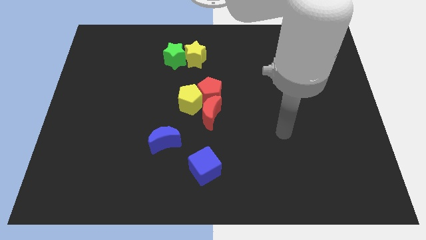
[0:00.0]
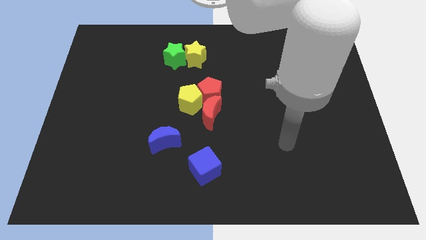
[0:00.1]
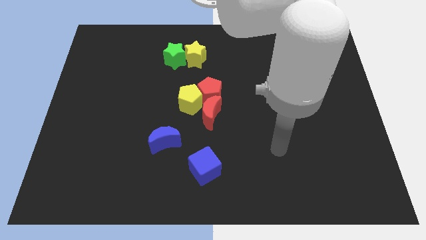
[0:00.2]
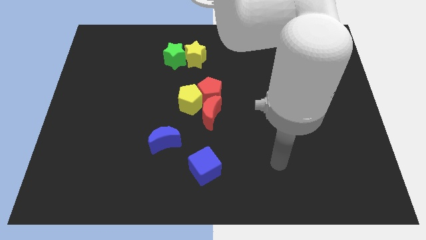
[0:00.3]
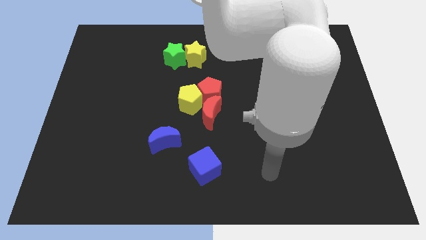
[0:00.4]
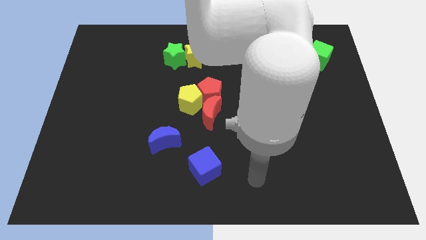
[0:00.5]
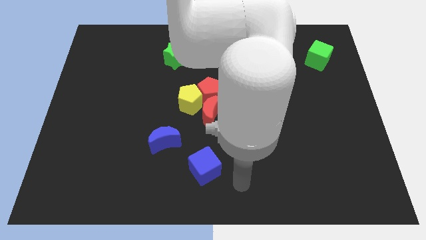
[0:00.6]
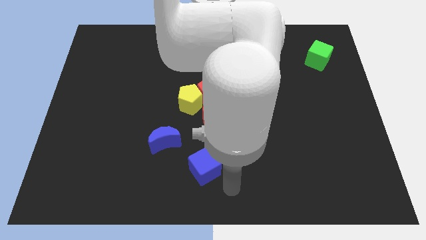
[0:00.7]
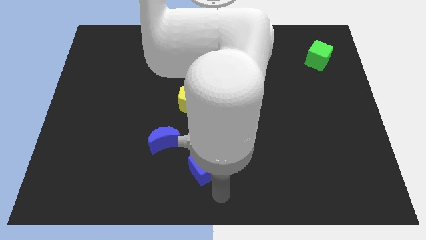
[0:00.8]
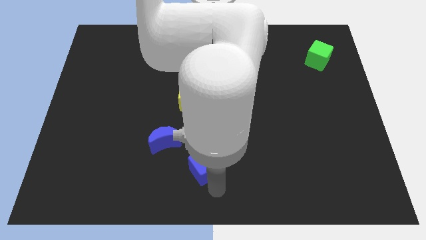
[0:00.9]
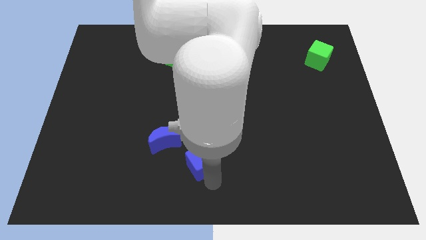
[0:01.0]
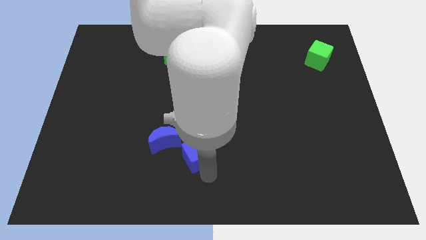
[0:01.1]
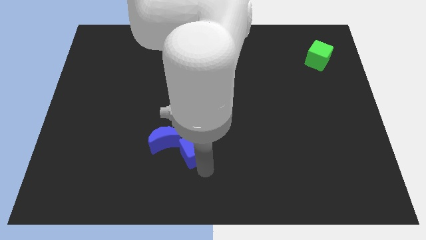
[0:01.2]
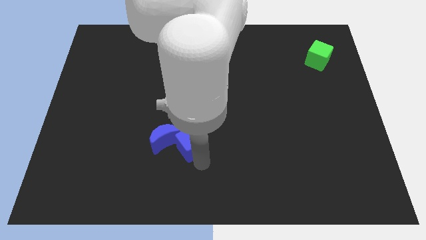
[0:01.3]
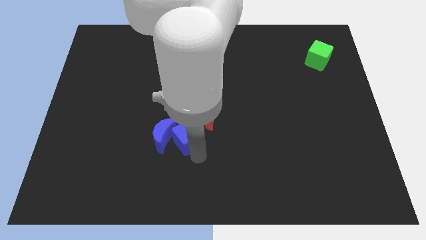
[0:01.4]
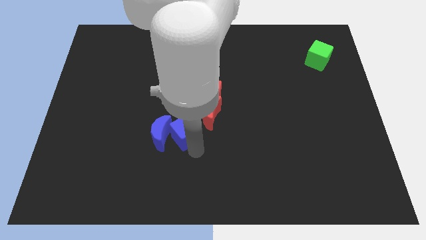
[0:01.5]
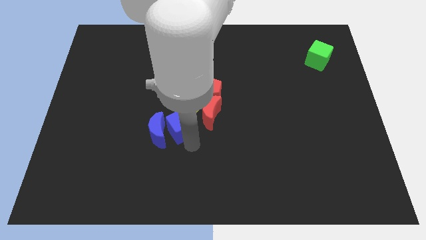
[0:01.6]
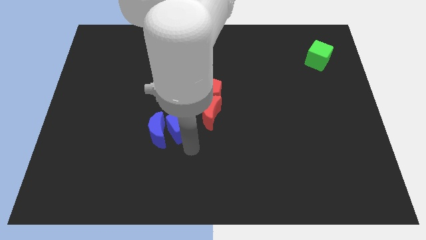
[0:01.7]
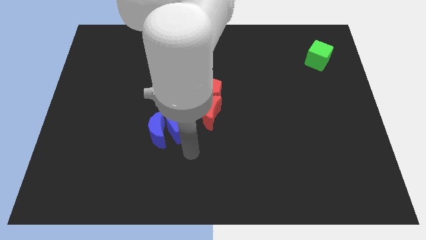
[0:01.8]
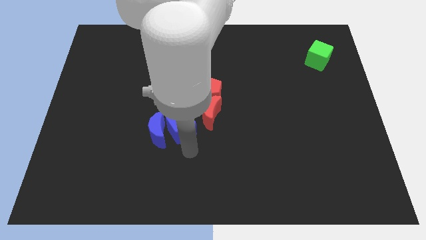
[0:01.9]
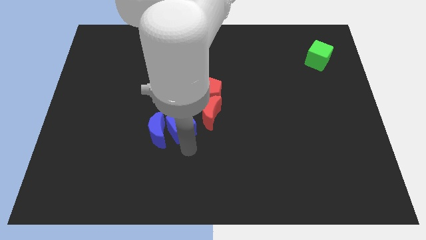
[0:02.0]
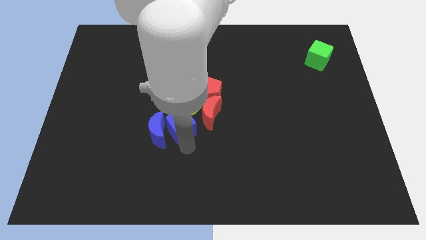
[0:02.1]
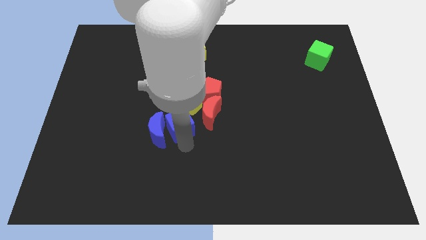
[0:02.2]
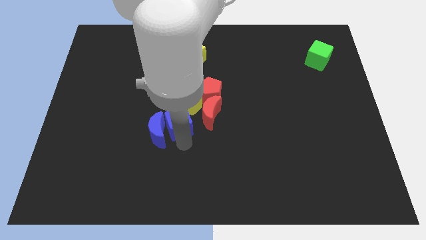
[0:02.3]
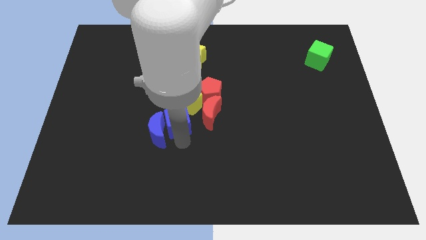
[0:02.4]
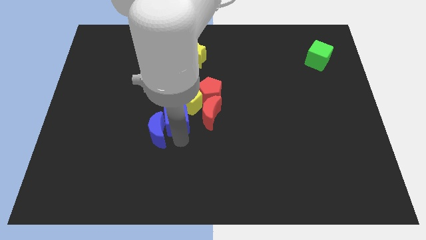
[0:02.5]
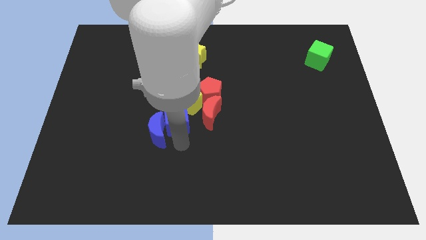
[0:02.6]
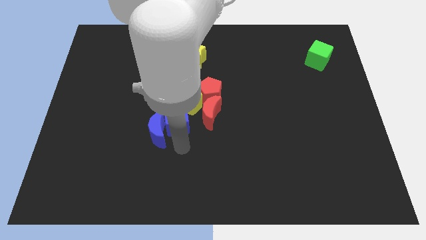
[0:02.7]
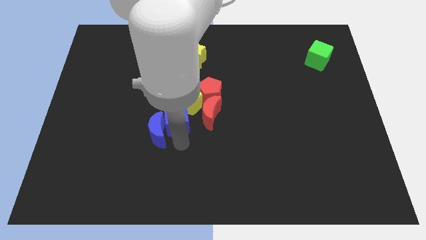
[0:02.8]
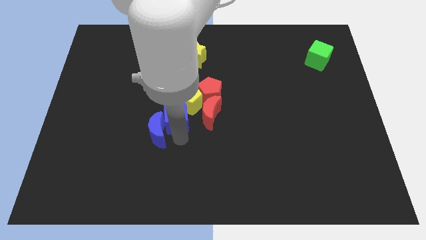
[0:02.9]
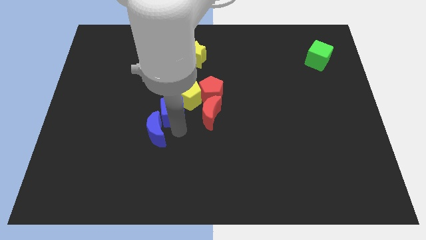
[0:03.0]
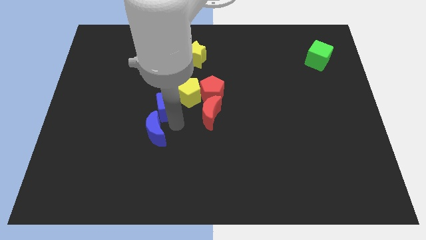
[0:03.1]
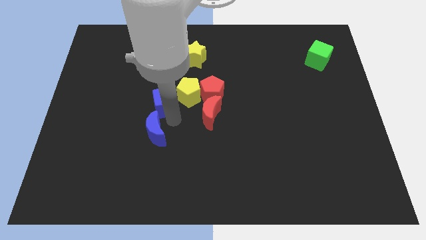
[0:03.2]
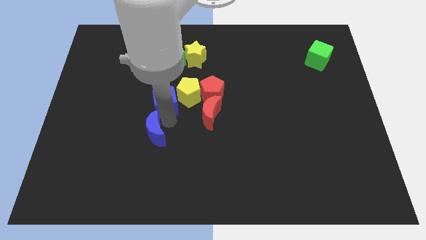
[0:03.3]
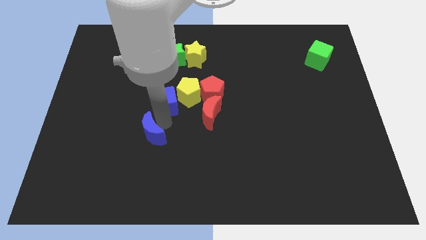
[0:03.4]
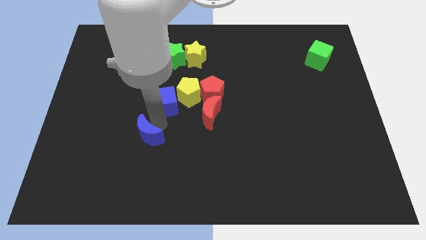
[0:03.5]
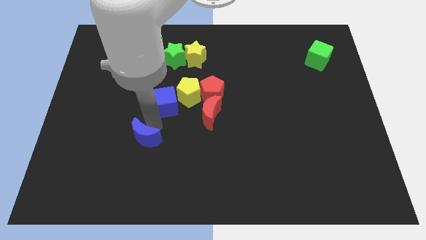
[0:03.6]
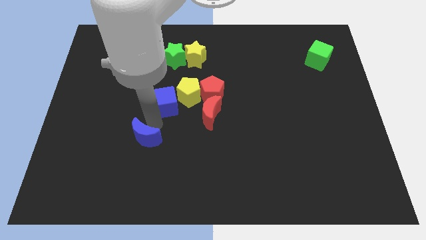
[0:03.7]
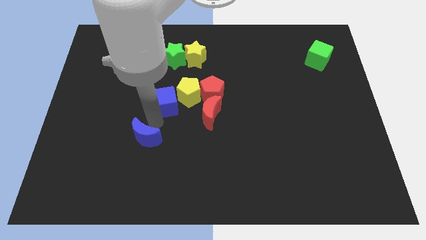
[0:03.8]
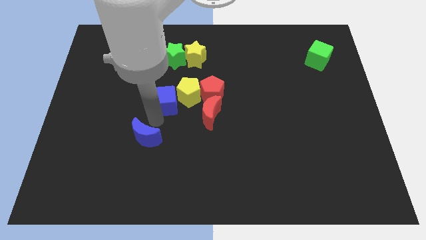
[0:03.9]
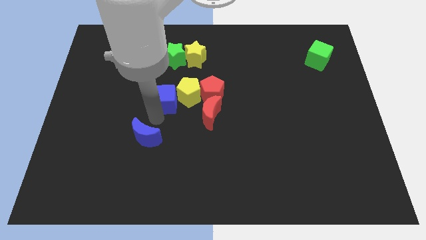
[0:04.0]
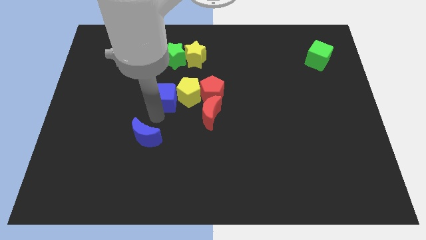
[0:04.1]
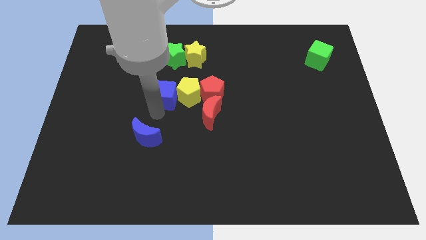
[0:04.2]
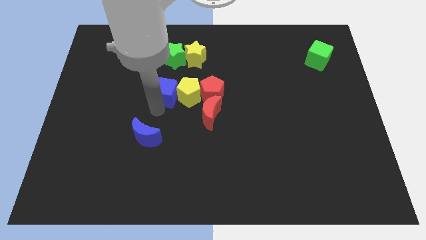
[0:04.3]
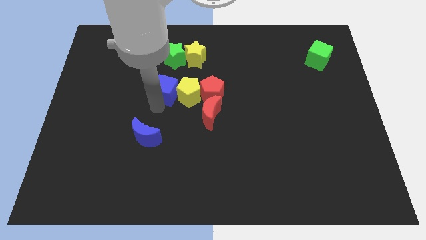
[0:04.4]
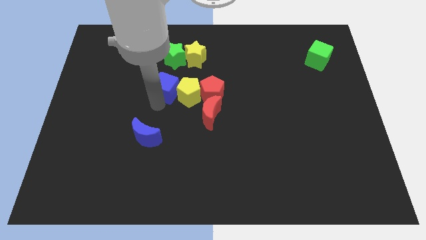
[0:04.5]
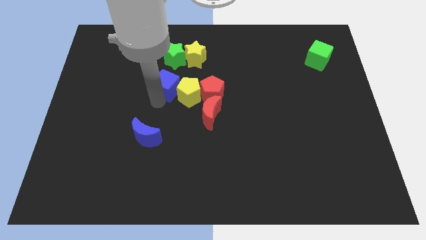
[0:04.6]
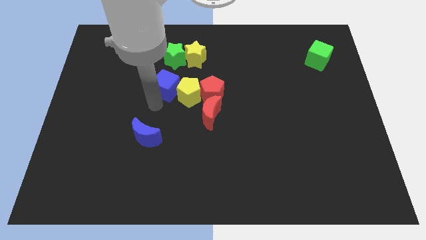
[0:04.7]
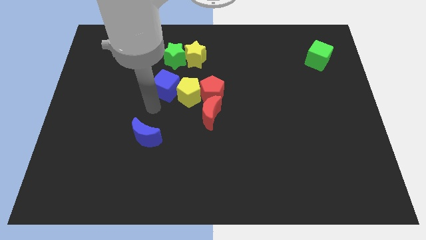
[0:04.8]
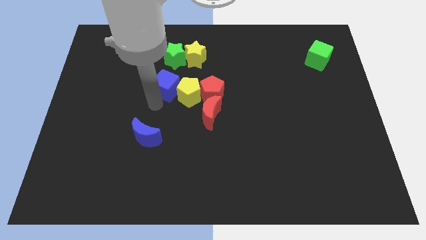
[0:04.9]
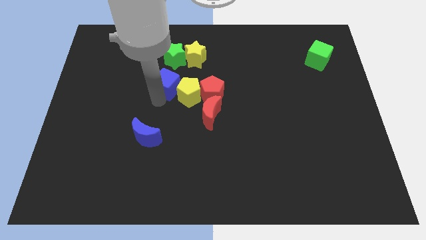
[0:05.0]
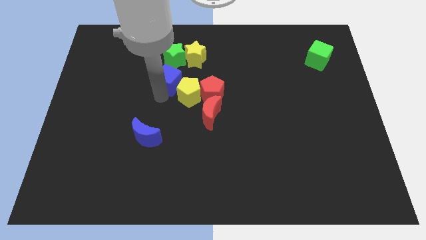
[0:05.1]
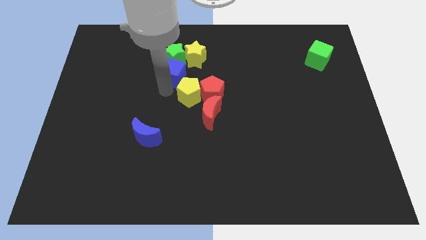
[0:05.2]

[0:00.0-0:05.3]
push the blue cube towards the green star

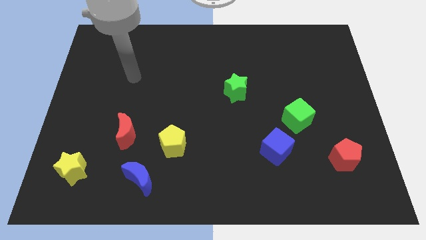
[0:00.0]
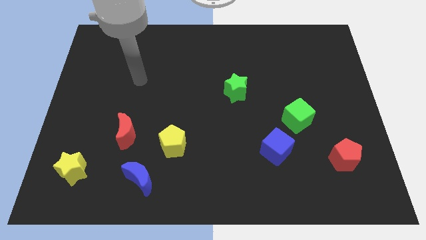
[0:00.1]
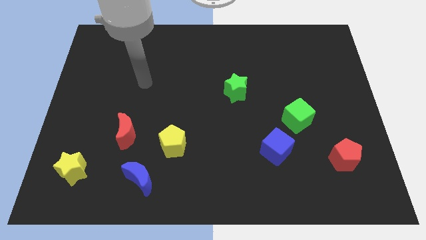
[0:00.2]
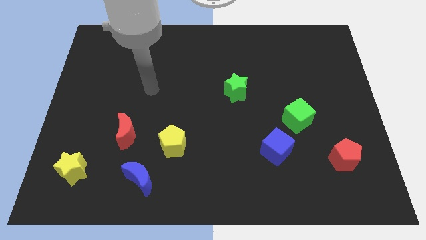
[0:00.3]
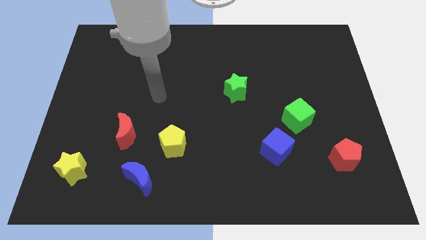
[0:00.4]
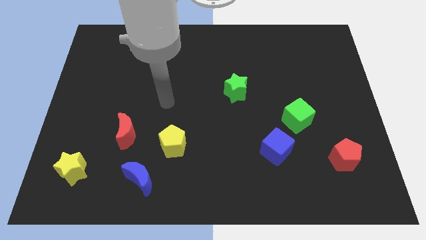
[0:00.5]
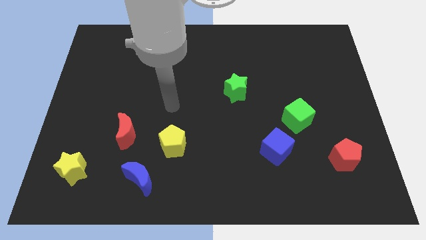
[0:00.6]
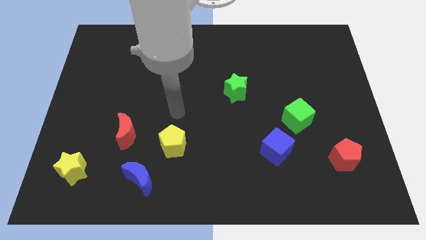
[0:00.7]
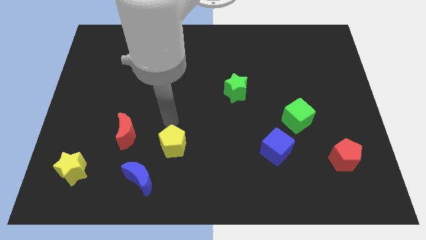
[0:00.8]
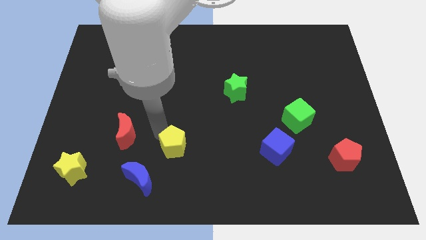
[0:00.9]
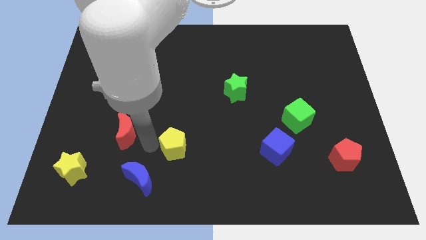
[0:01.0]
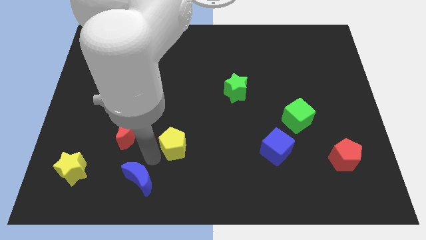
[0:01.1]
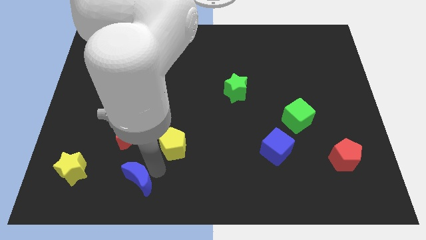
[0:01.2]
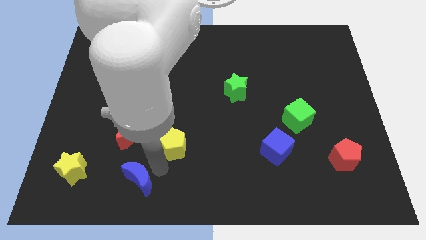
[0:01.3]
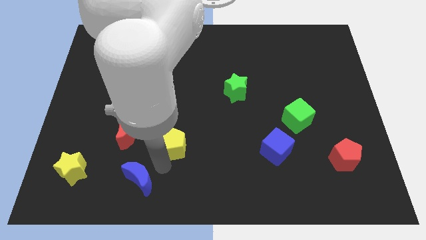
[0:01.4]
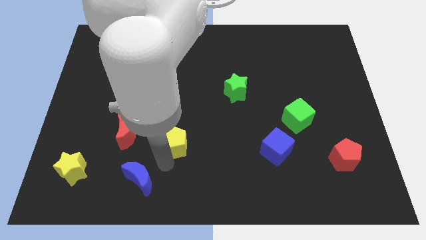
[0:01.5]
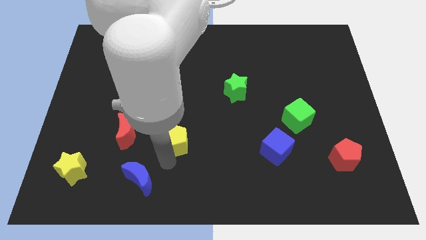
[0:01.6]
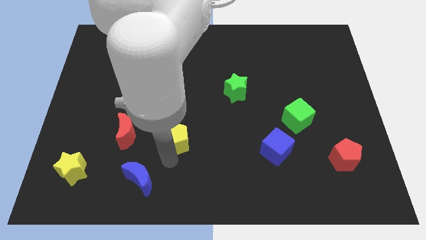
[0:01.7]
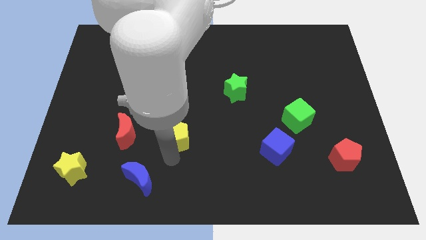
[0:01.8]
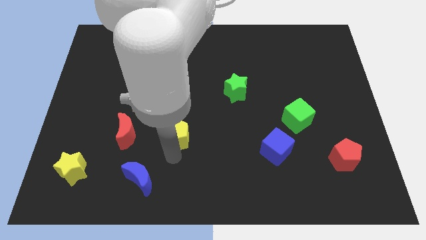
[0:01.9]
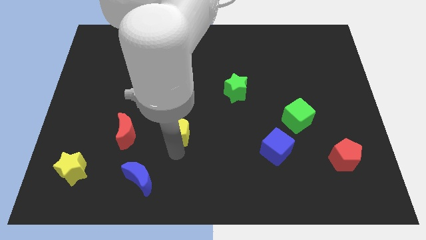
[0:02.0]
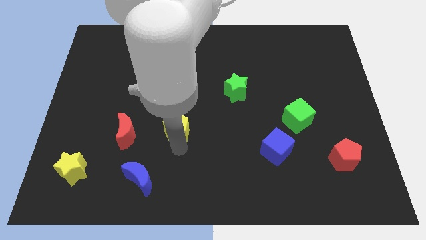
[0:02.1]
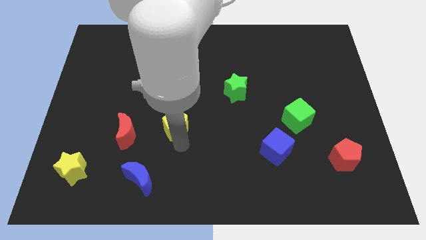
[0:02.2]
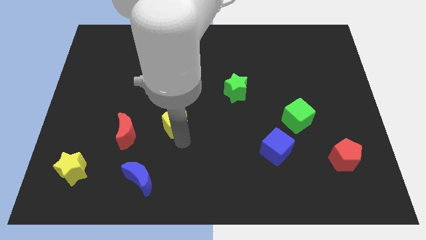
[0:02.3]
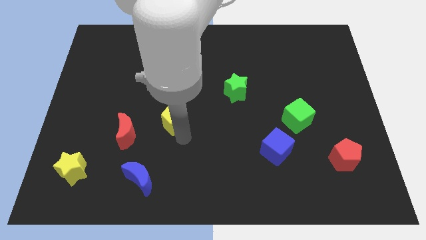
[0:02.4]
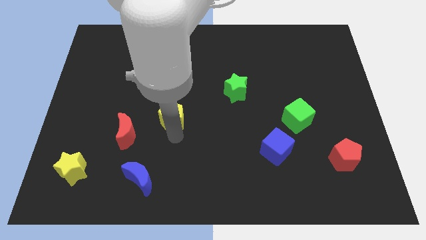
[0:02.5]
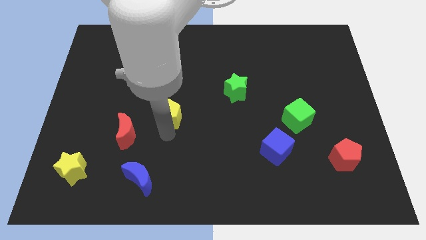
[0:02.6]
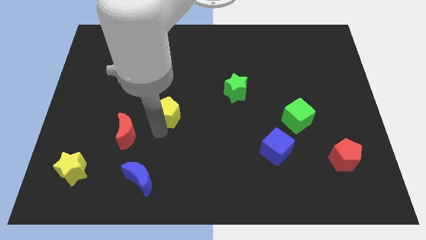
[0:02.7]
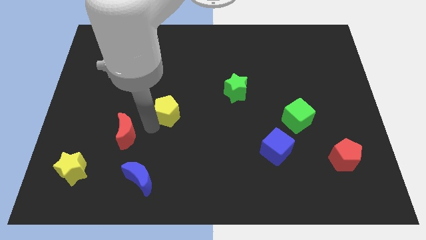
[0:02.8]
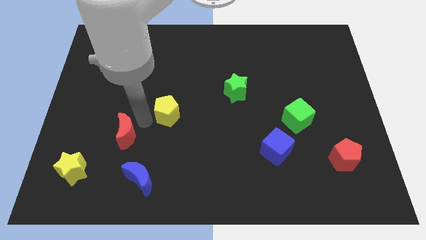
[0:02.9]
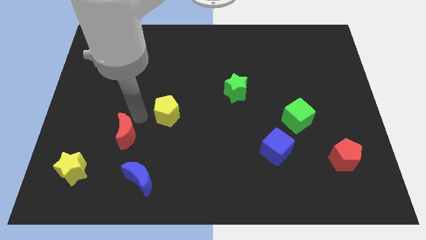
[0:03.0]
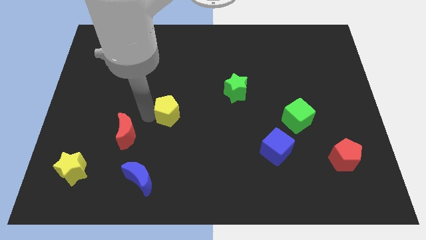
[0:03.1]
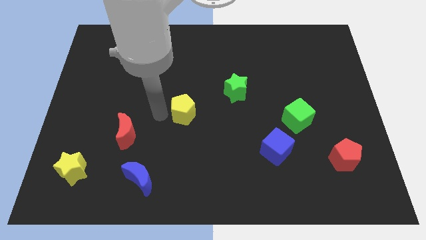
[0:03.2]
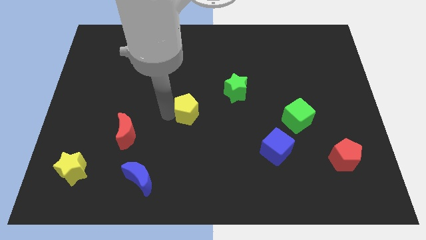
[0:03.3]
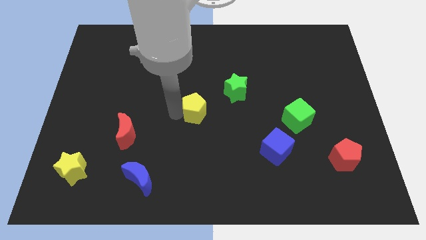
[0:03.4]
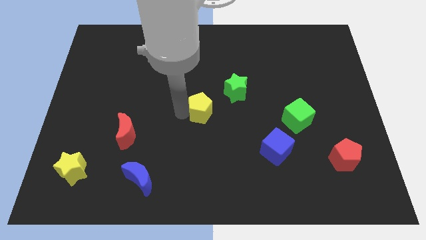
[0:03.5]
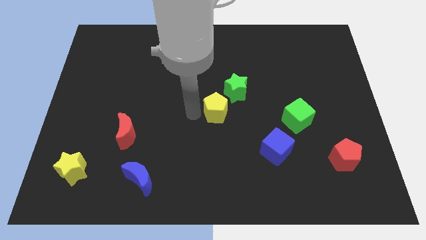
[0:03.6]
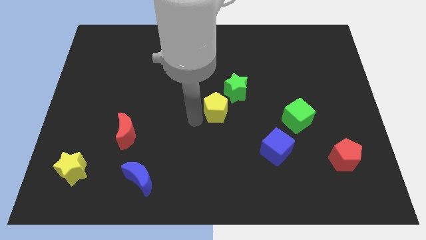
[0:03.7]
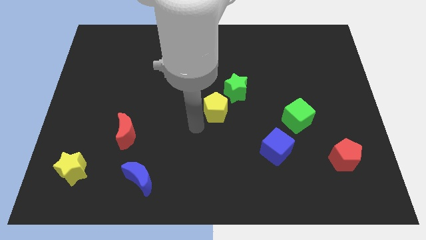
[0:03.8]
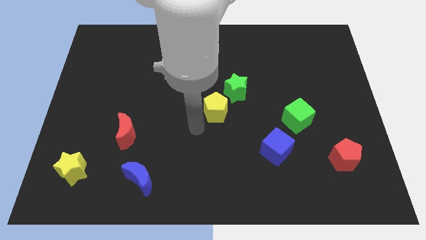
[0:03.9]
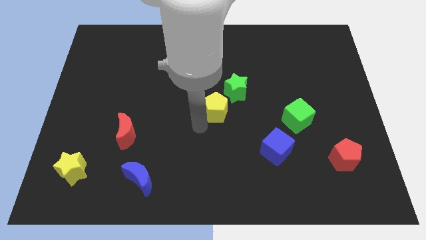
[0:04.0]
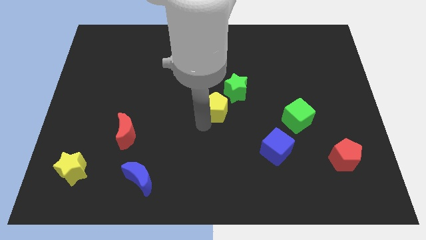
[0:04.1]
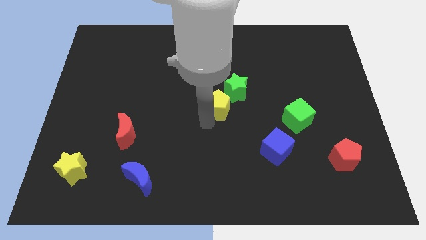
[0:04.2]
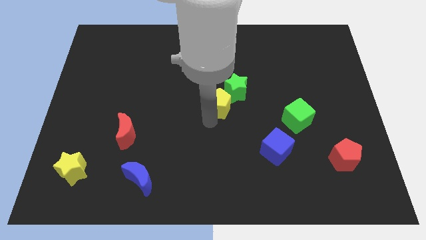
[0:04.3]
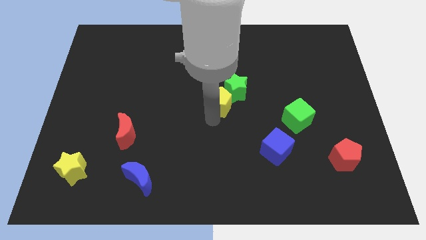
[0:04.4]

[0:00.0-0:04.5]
push the yellow pentagon close to the green star
